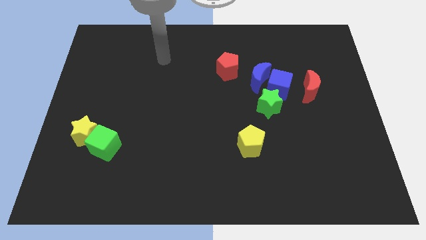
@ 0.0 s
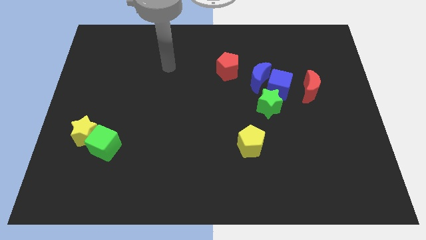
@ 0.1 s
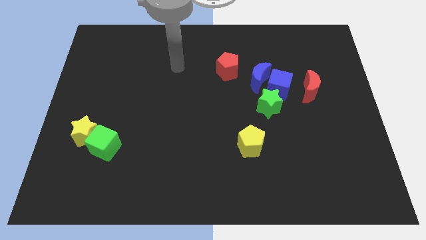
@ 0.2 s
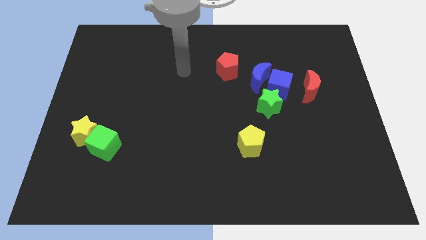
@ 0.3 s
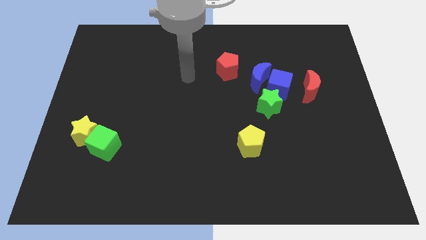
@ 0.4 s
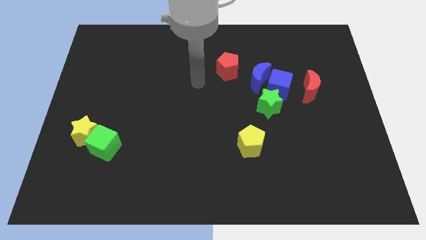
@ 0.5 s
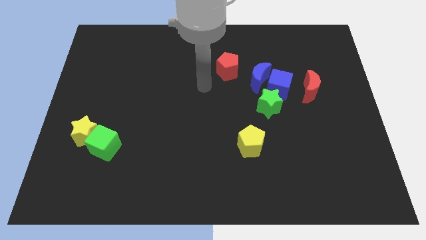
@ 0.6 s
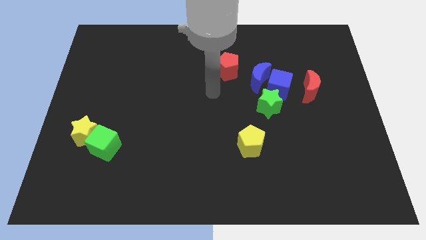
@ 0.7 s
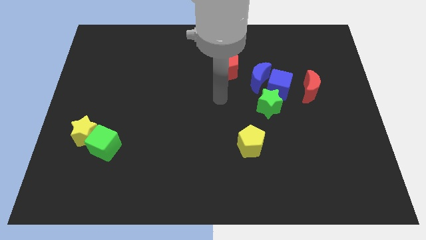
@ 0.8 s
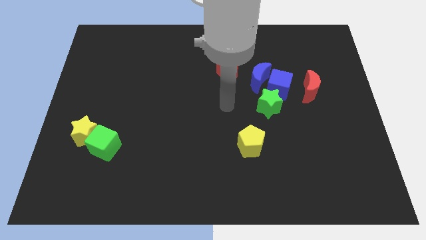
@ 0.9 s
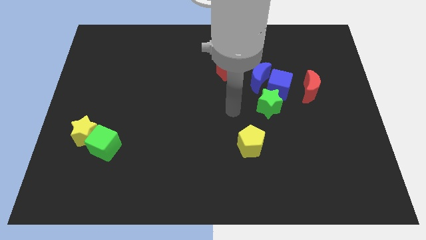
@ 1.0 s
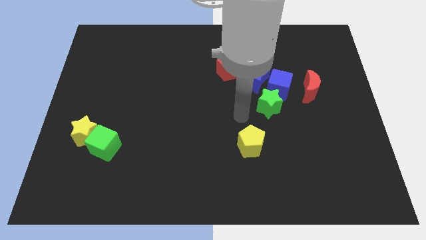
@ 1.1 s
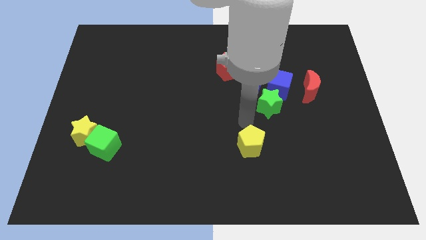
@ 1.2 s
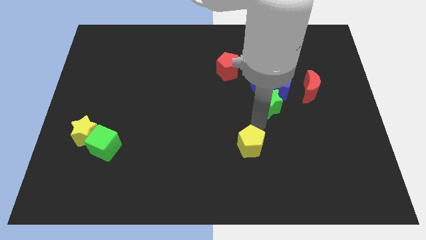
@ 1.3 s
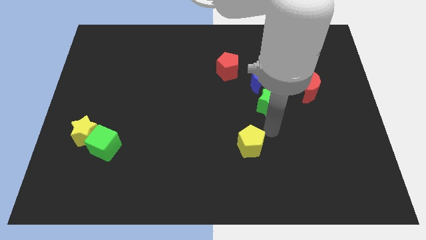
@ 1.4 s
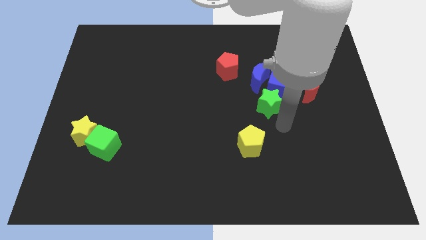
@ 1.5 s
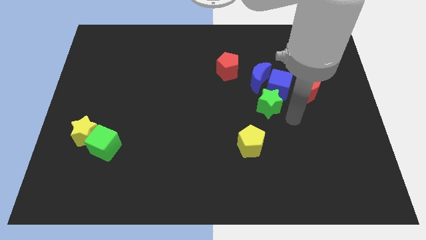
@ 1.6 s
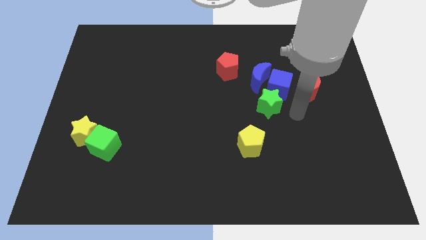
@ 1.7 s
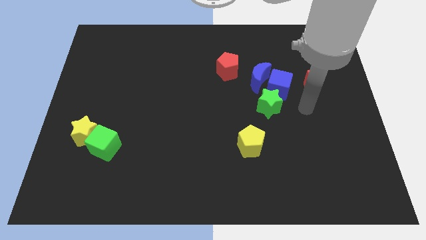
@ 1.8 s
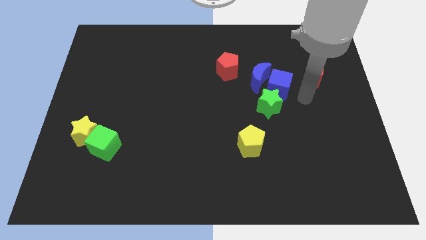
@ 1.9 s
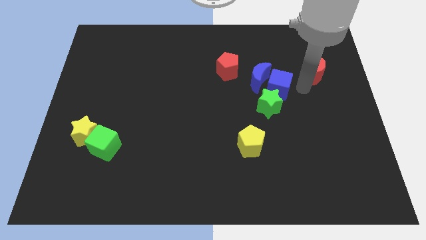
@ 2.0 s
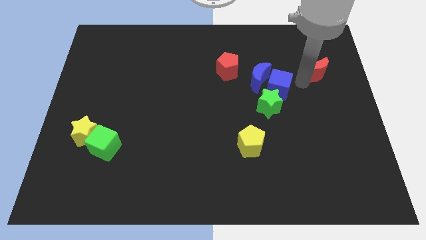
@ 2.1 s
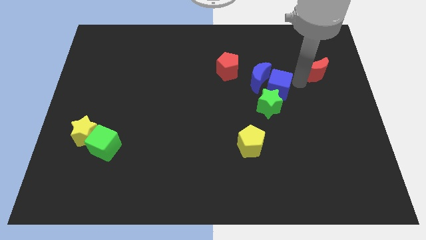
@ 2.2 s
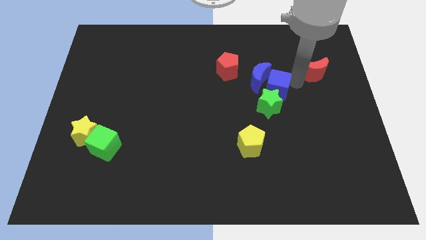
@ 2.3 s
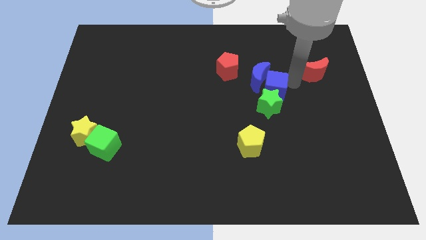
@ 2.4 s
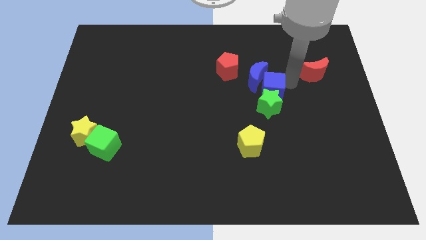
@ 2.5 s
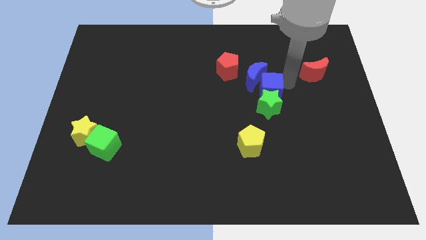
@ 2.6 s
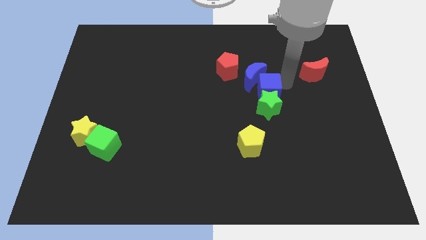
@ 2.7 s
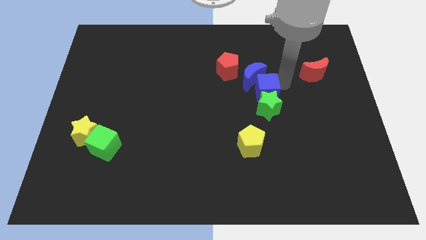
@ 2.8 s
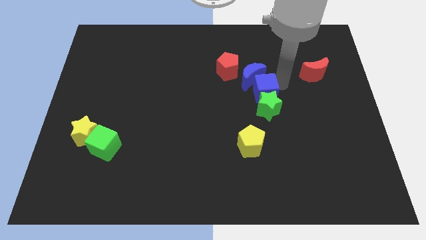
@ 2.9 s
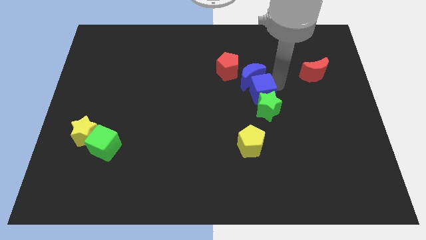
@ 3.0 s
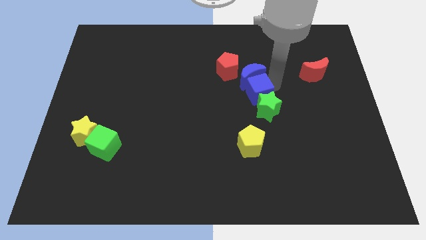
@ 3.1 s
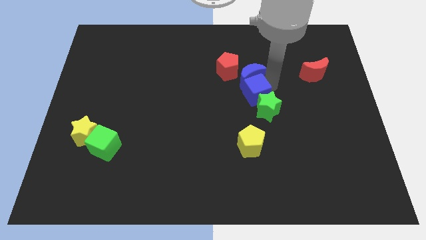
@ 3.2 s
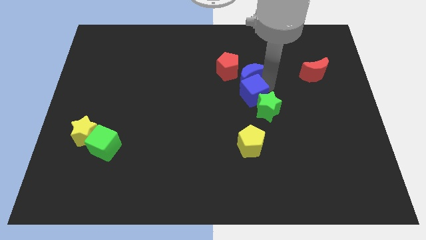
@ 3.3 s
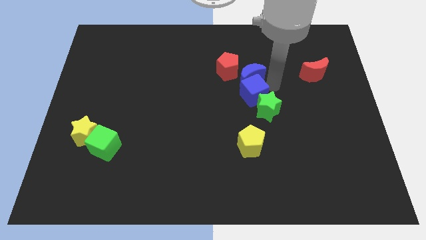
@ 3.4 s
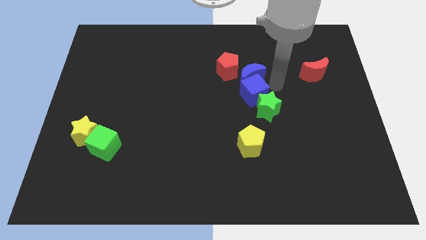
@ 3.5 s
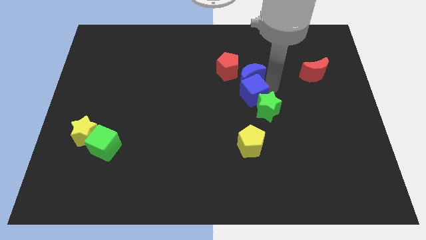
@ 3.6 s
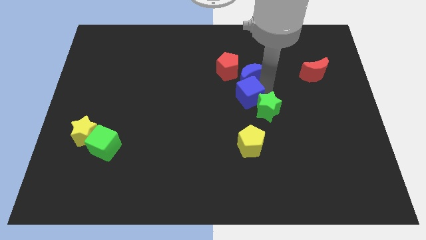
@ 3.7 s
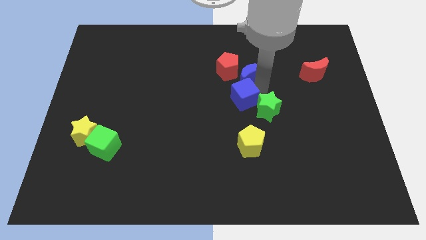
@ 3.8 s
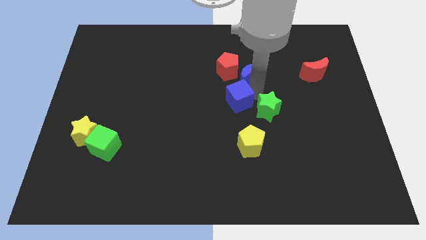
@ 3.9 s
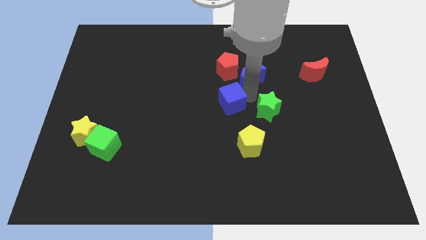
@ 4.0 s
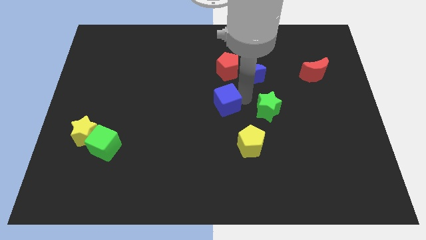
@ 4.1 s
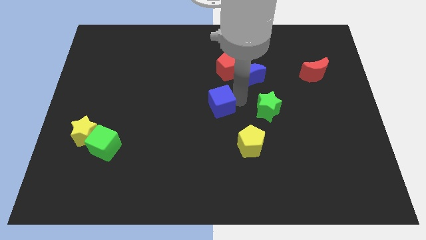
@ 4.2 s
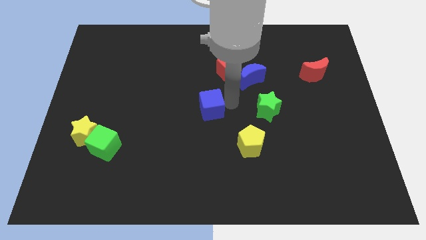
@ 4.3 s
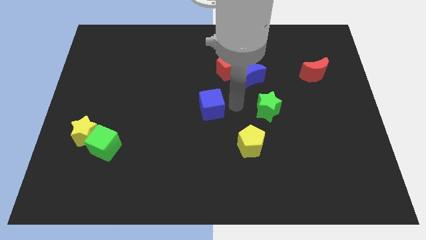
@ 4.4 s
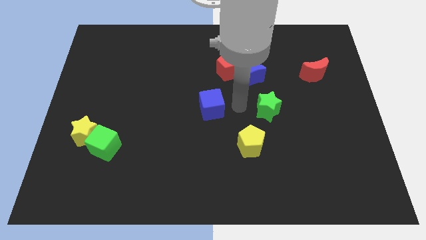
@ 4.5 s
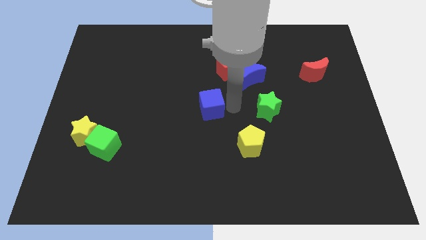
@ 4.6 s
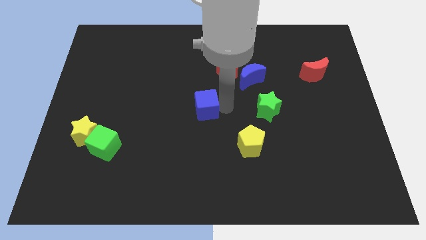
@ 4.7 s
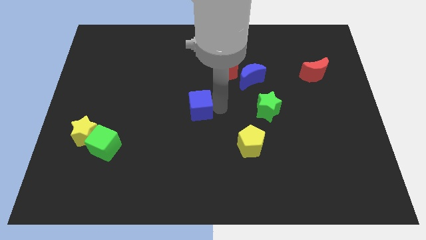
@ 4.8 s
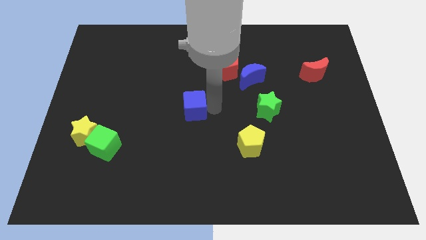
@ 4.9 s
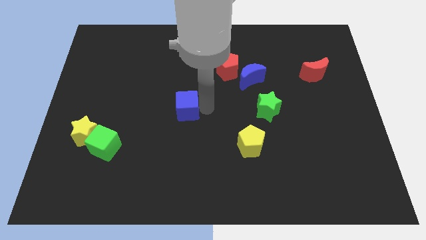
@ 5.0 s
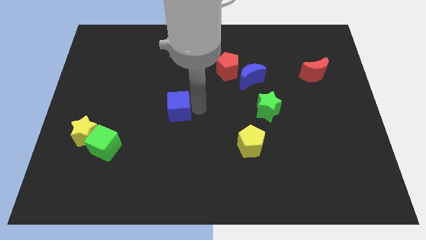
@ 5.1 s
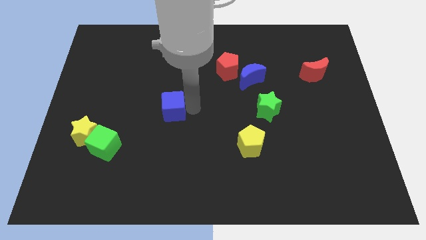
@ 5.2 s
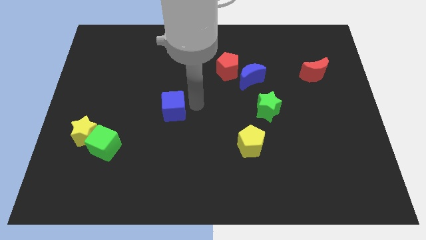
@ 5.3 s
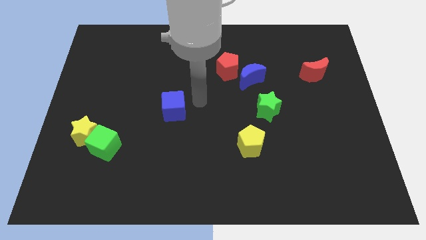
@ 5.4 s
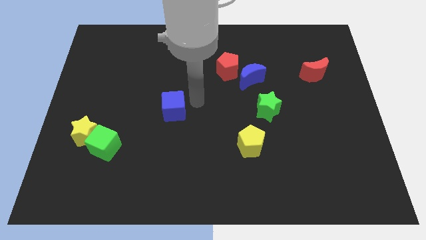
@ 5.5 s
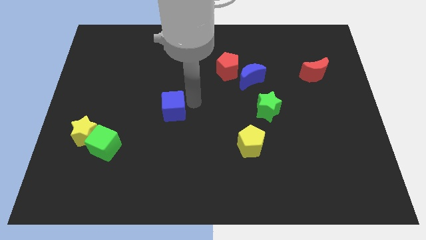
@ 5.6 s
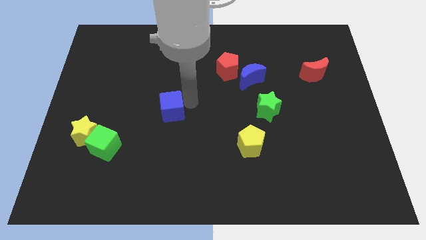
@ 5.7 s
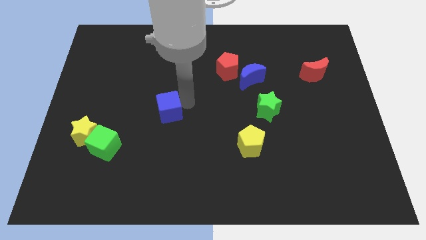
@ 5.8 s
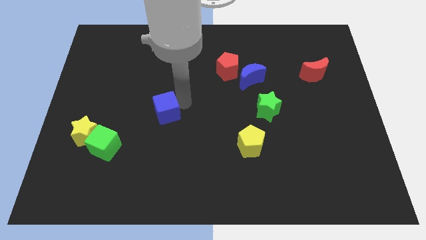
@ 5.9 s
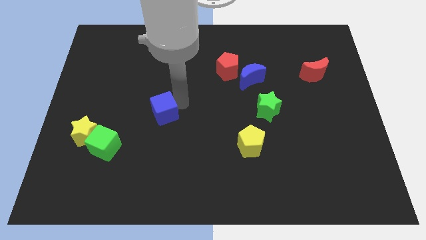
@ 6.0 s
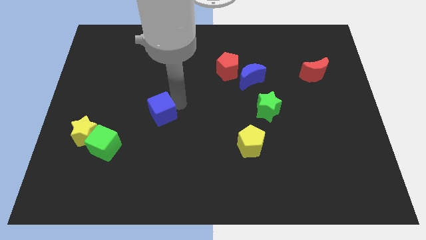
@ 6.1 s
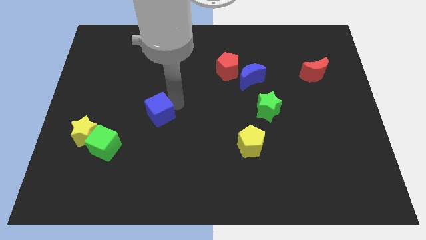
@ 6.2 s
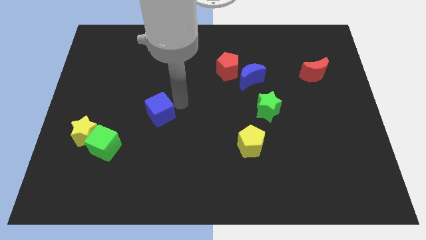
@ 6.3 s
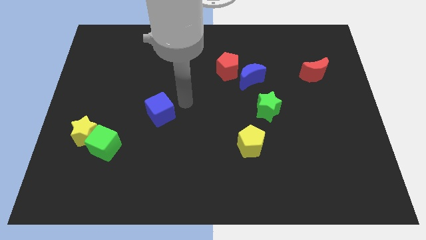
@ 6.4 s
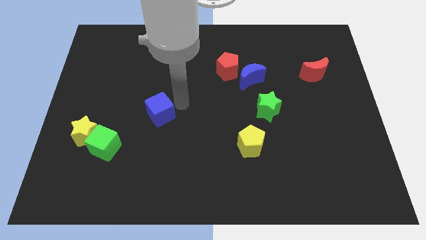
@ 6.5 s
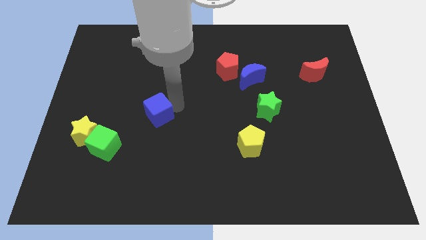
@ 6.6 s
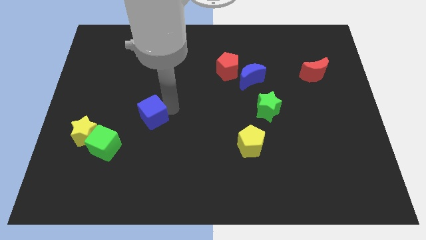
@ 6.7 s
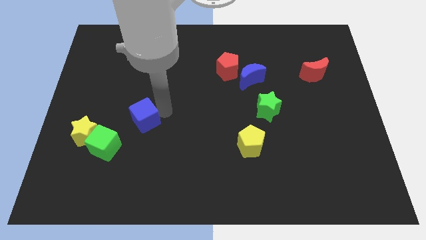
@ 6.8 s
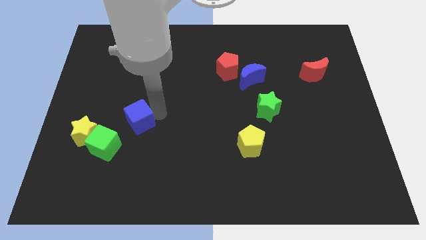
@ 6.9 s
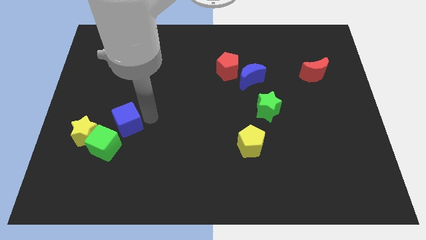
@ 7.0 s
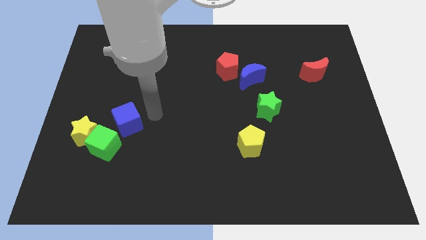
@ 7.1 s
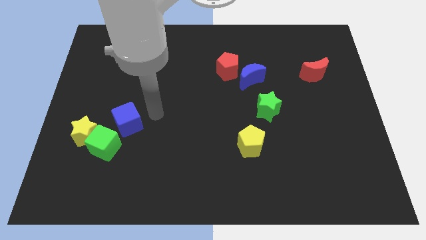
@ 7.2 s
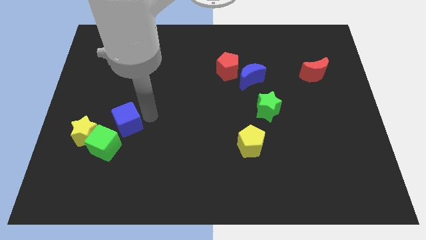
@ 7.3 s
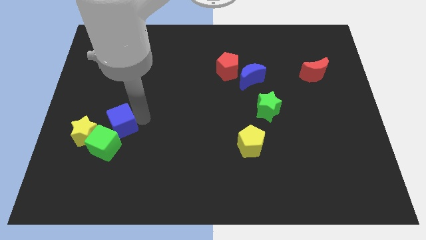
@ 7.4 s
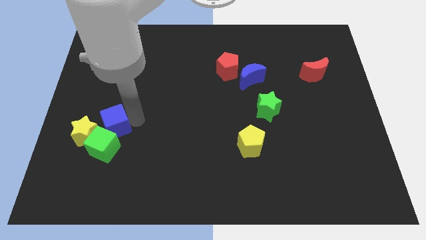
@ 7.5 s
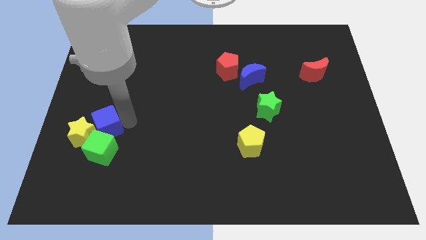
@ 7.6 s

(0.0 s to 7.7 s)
slide the blue cube towards the yellow star
